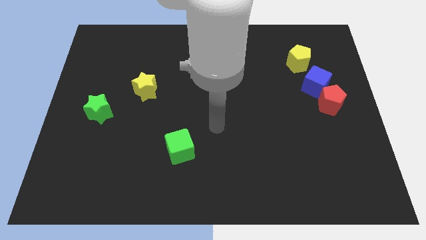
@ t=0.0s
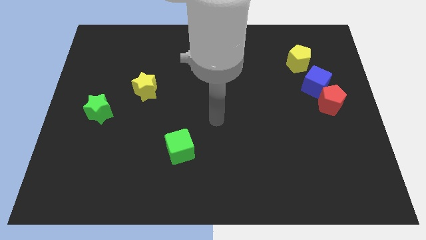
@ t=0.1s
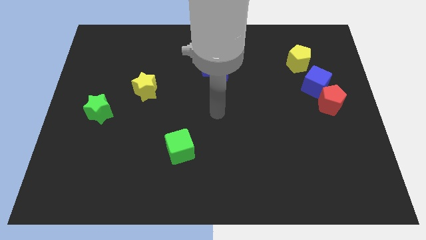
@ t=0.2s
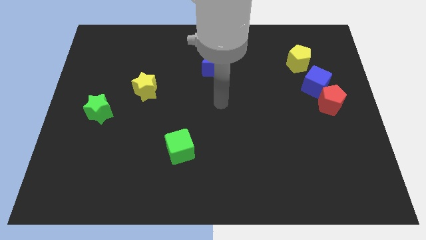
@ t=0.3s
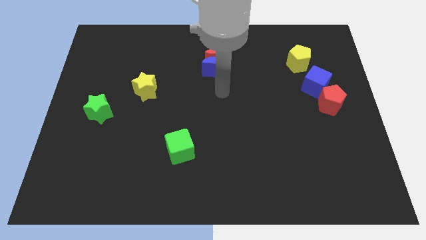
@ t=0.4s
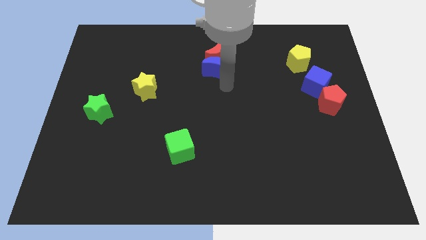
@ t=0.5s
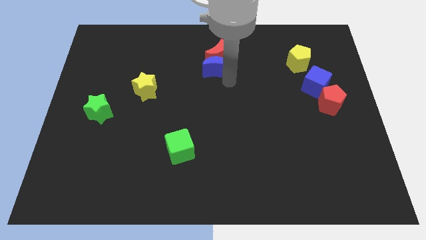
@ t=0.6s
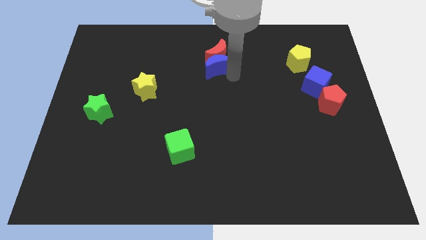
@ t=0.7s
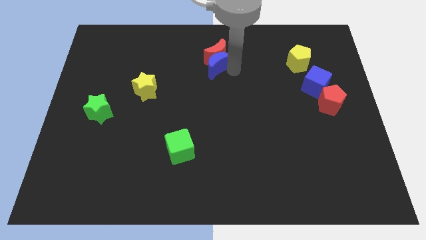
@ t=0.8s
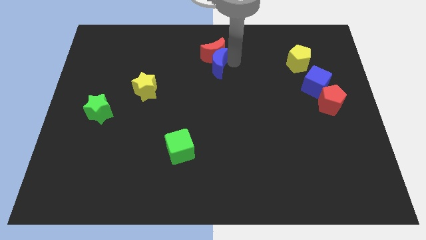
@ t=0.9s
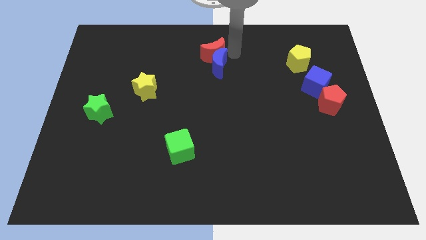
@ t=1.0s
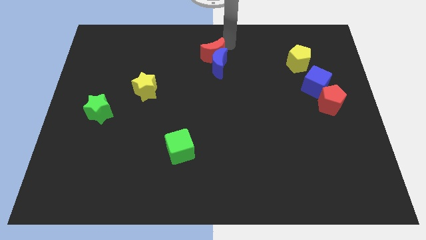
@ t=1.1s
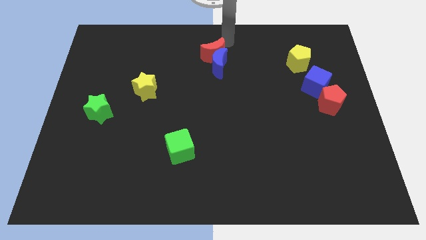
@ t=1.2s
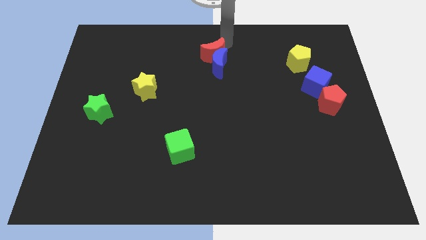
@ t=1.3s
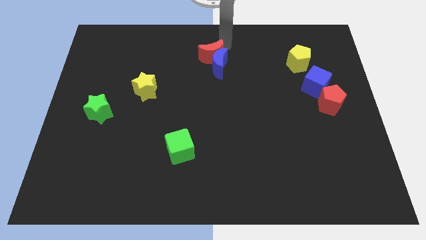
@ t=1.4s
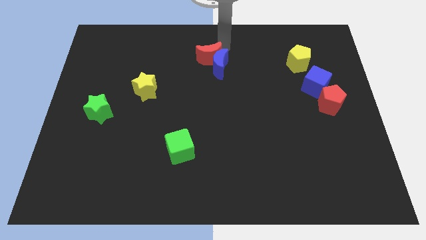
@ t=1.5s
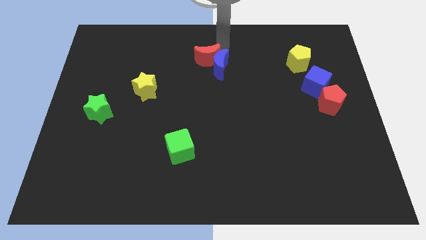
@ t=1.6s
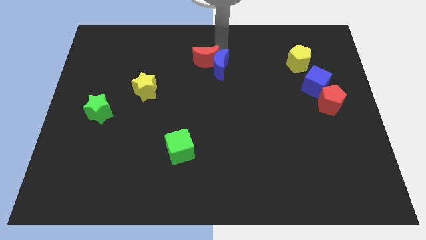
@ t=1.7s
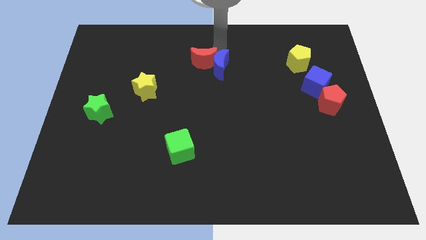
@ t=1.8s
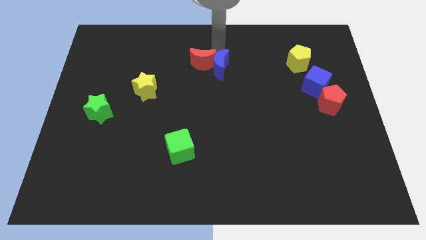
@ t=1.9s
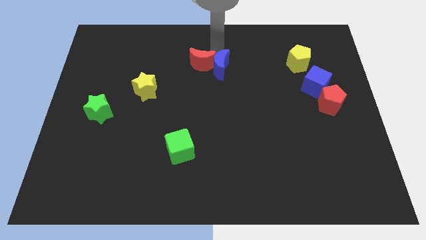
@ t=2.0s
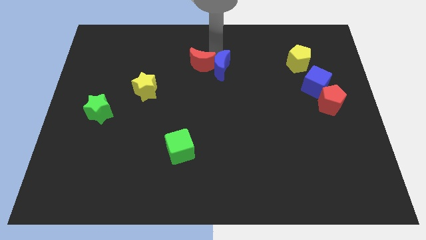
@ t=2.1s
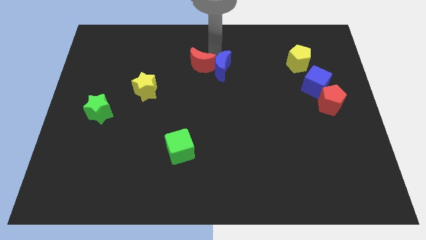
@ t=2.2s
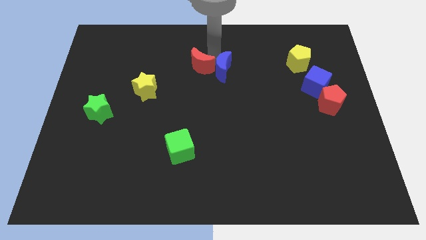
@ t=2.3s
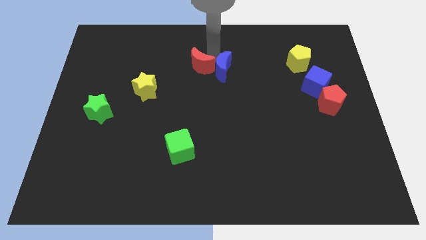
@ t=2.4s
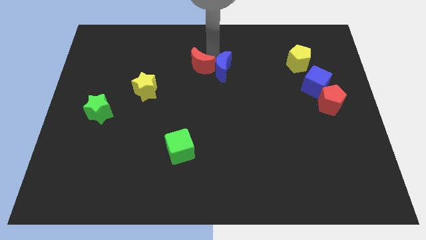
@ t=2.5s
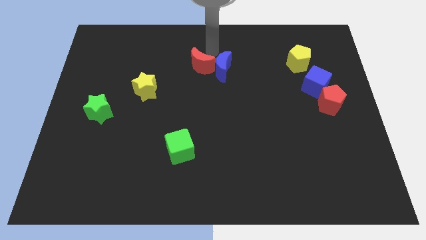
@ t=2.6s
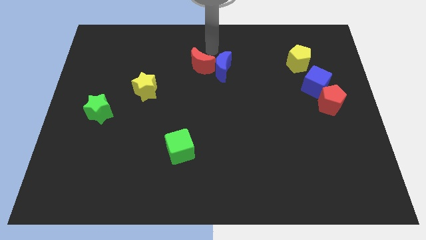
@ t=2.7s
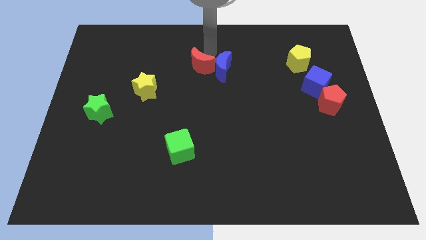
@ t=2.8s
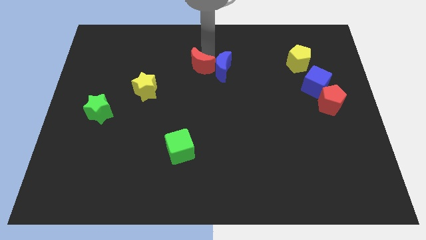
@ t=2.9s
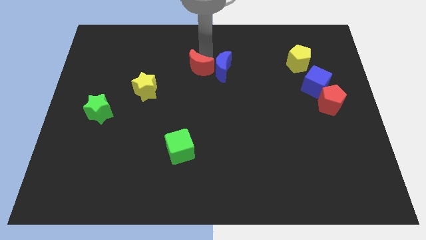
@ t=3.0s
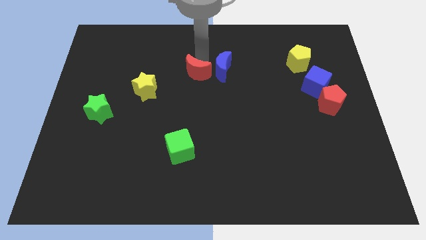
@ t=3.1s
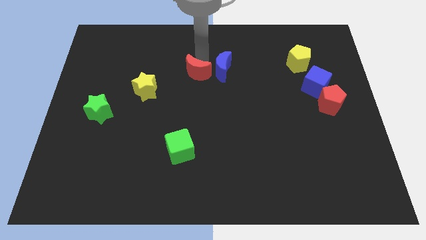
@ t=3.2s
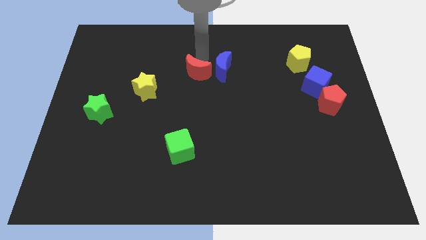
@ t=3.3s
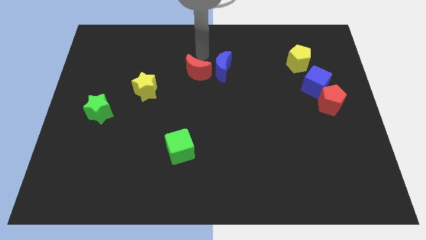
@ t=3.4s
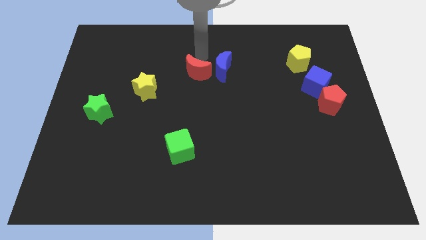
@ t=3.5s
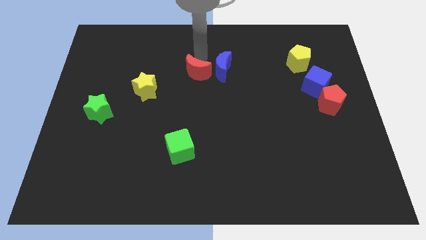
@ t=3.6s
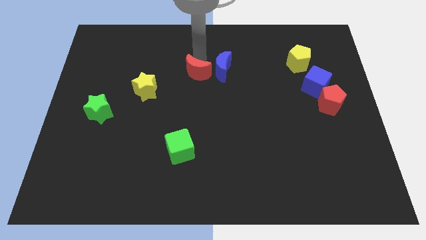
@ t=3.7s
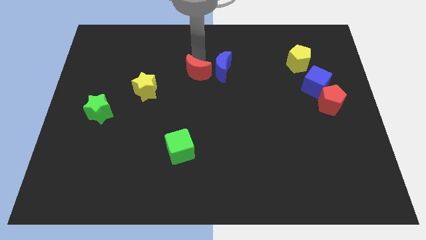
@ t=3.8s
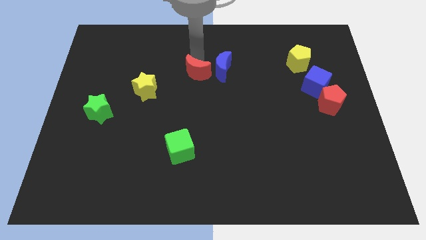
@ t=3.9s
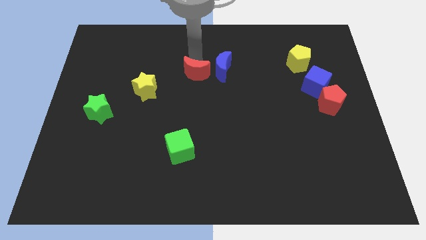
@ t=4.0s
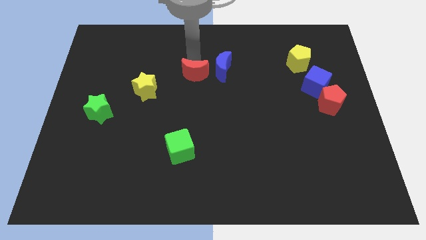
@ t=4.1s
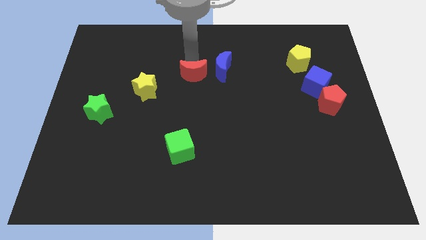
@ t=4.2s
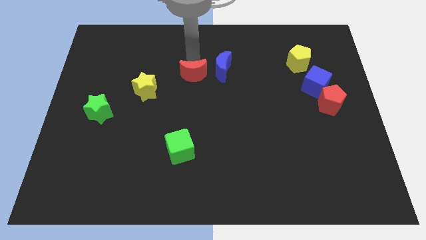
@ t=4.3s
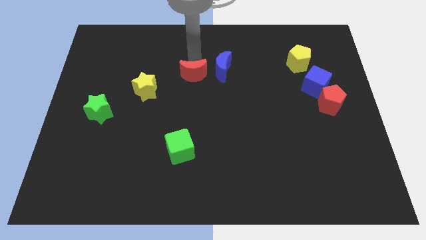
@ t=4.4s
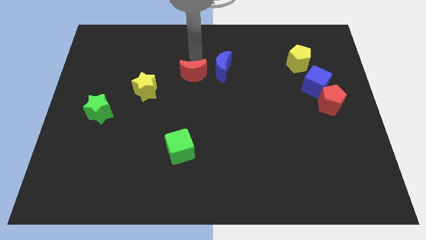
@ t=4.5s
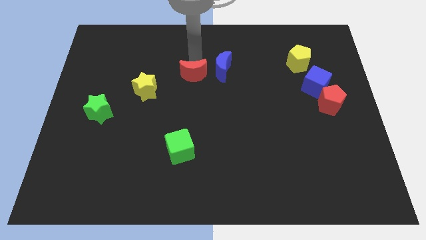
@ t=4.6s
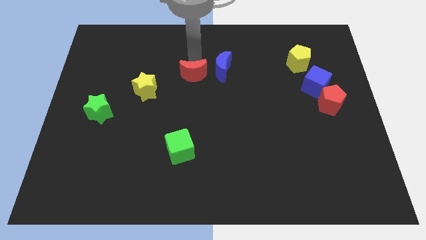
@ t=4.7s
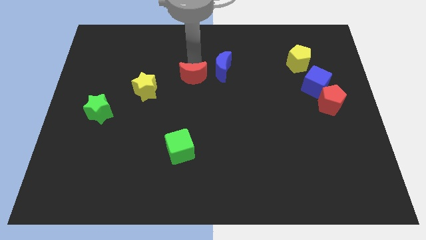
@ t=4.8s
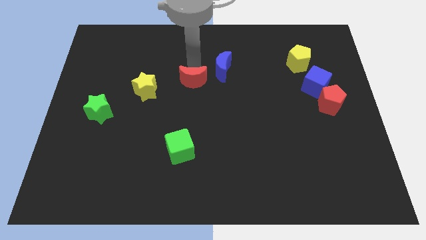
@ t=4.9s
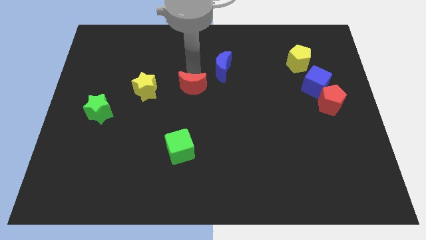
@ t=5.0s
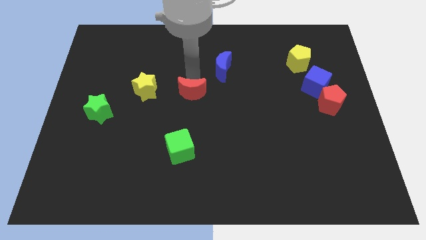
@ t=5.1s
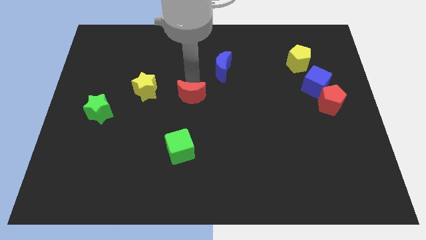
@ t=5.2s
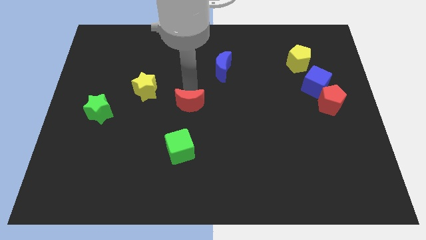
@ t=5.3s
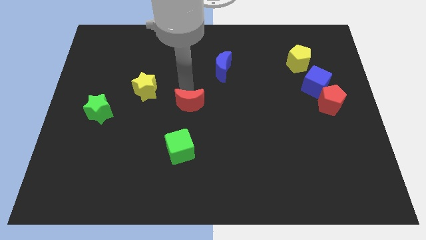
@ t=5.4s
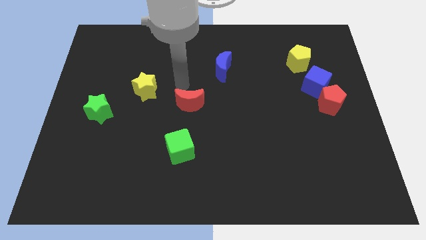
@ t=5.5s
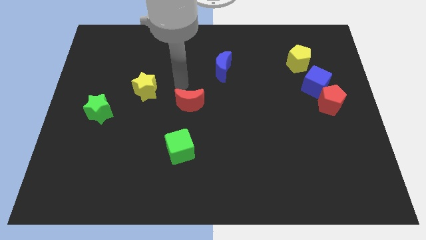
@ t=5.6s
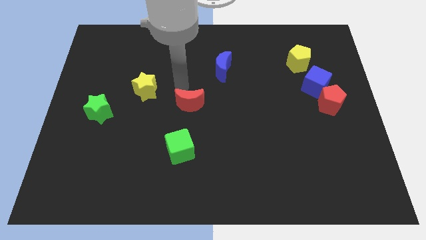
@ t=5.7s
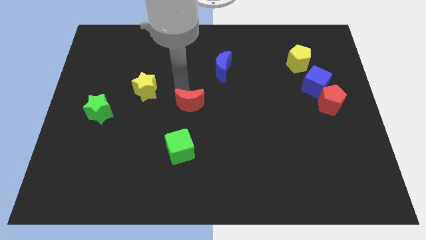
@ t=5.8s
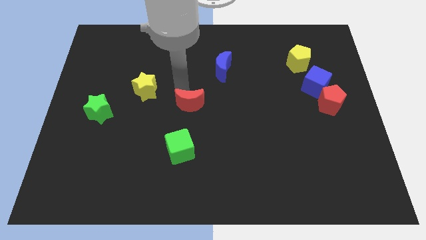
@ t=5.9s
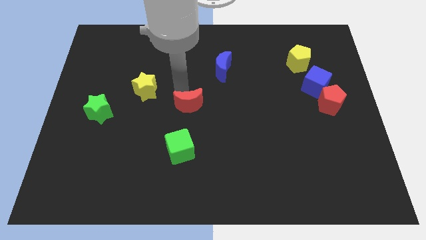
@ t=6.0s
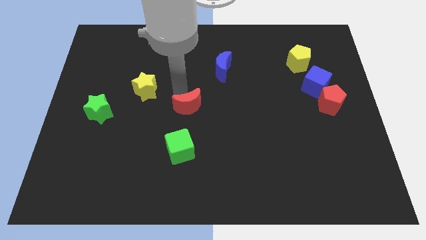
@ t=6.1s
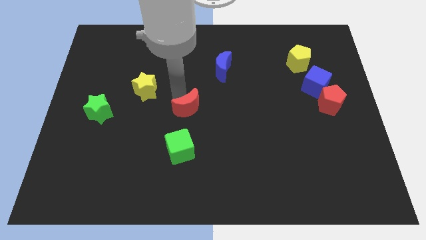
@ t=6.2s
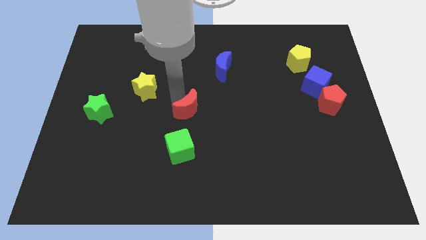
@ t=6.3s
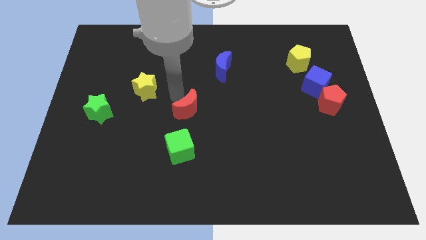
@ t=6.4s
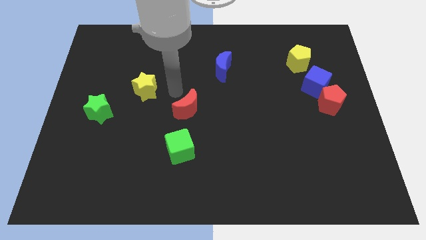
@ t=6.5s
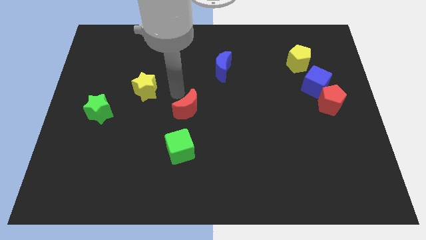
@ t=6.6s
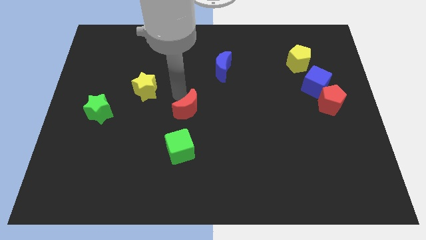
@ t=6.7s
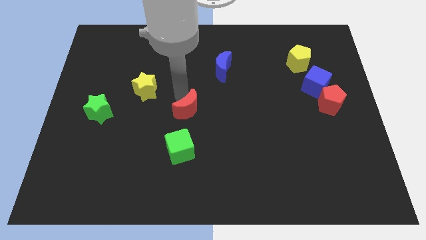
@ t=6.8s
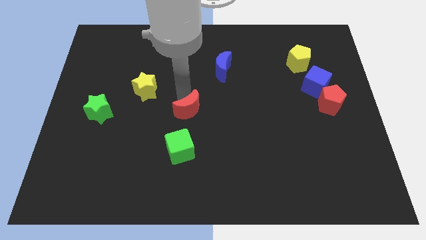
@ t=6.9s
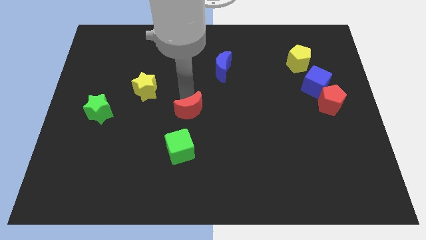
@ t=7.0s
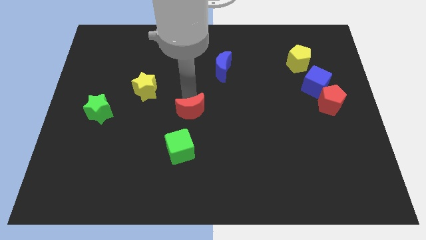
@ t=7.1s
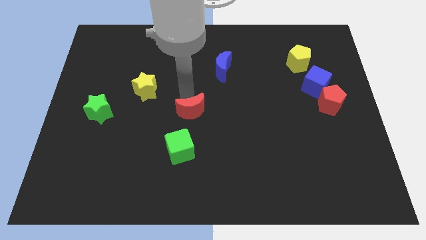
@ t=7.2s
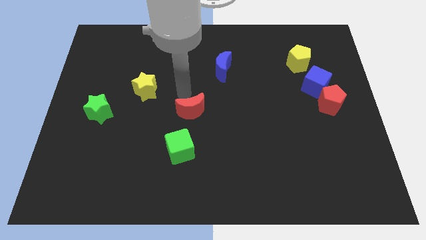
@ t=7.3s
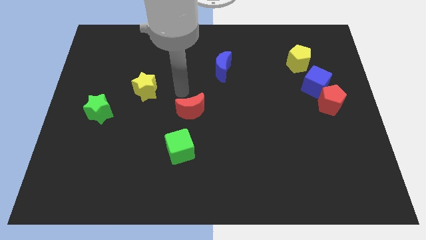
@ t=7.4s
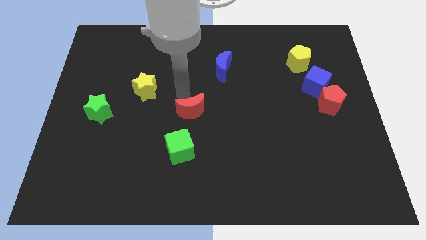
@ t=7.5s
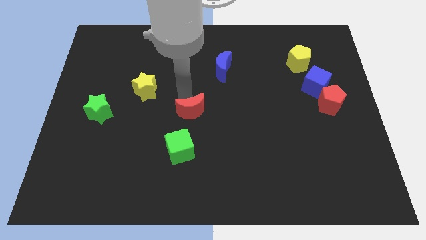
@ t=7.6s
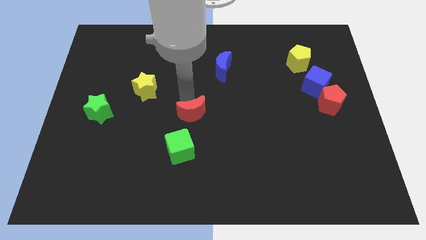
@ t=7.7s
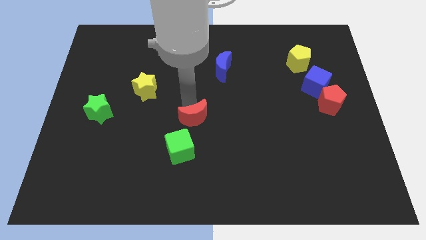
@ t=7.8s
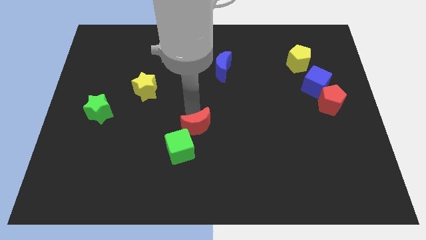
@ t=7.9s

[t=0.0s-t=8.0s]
push the red moon downwards

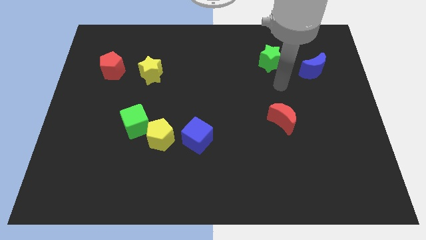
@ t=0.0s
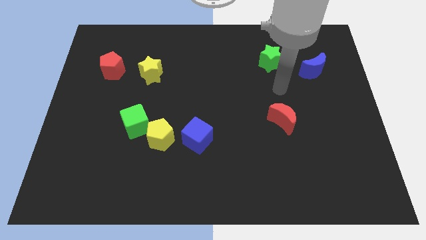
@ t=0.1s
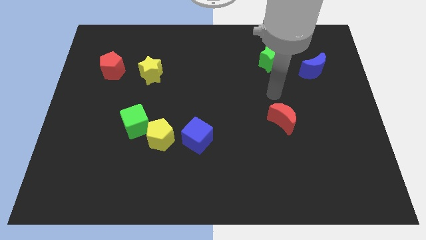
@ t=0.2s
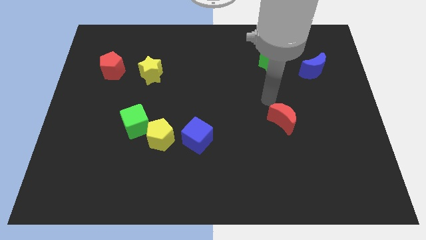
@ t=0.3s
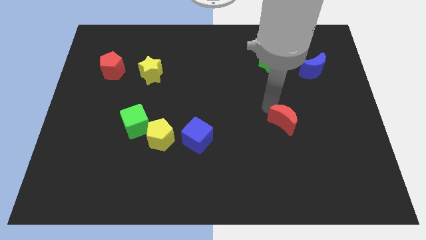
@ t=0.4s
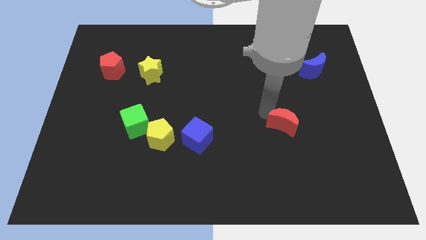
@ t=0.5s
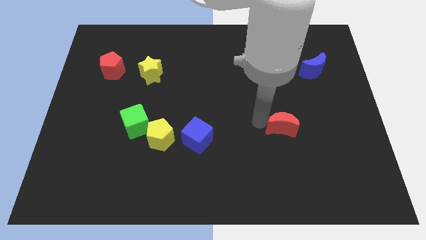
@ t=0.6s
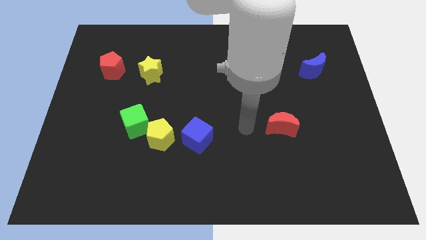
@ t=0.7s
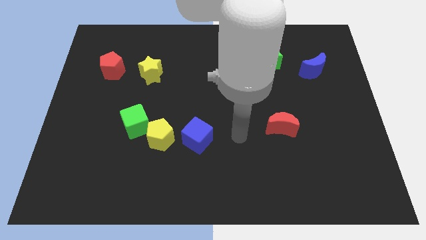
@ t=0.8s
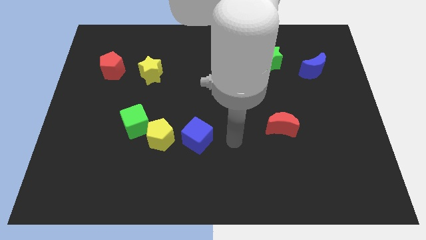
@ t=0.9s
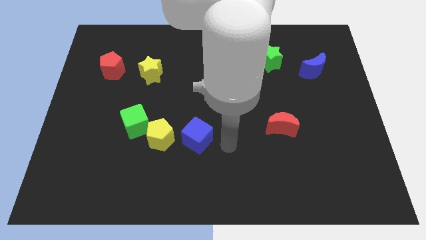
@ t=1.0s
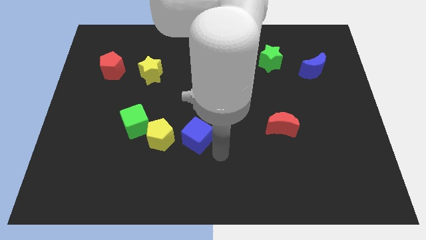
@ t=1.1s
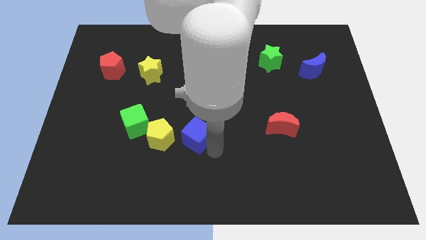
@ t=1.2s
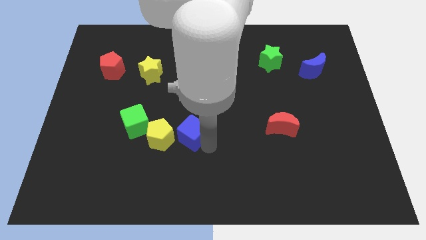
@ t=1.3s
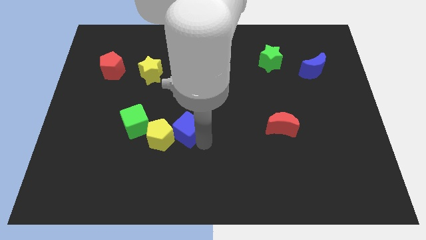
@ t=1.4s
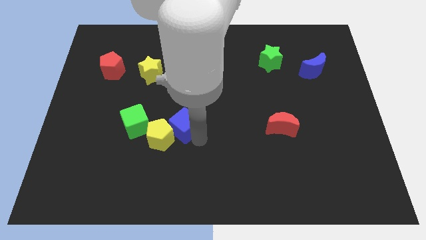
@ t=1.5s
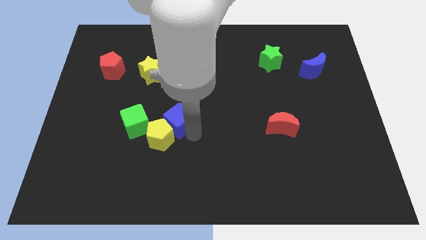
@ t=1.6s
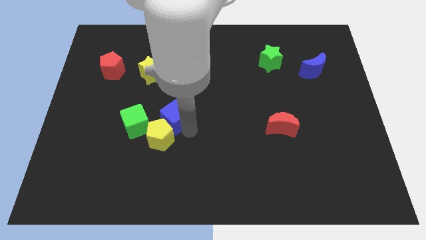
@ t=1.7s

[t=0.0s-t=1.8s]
slightly push the blue cube diagonally upwards and left
